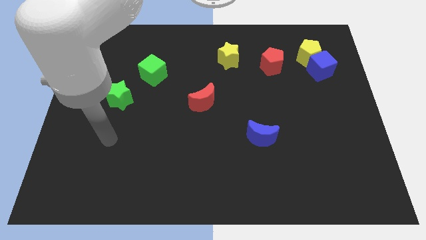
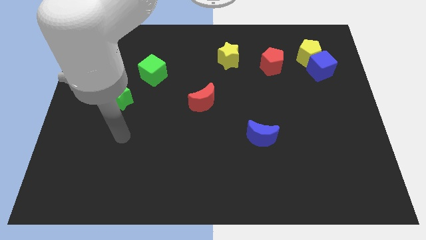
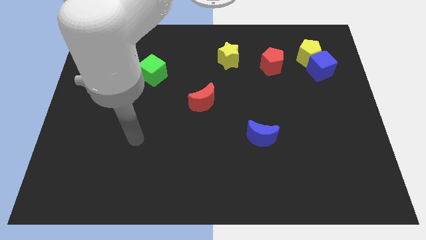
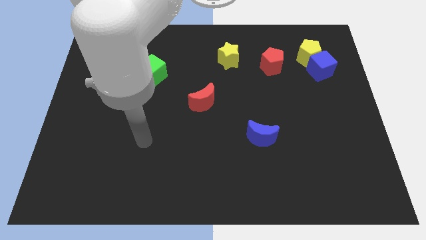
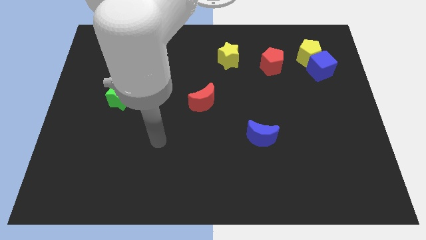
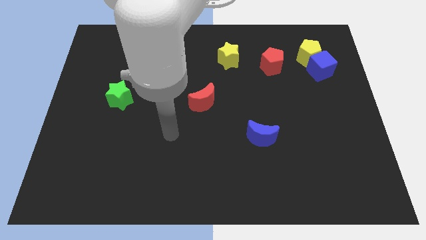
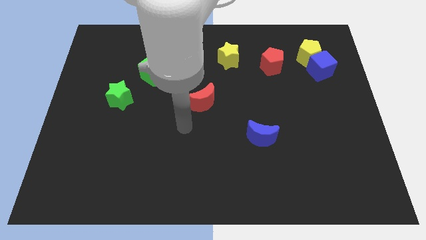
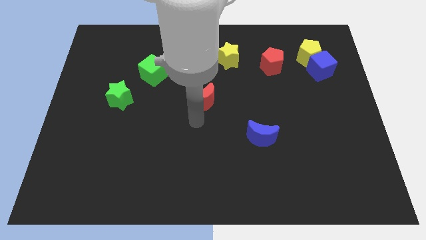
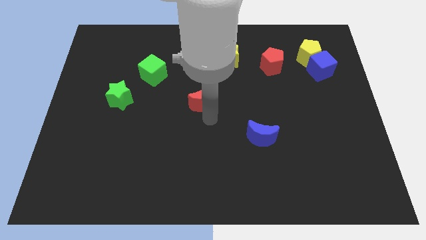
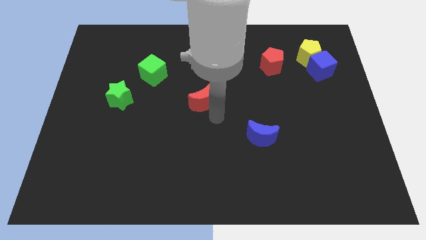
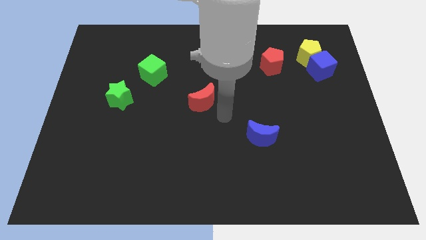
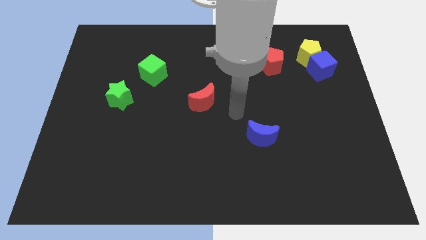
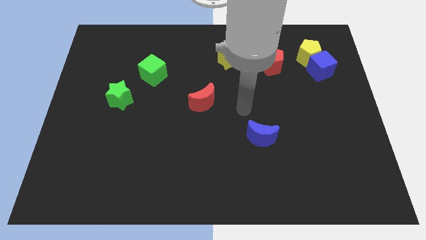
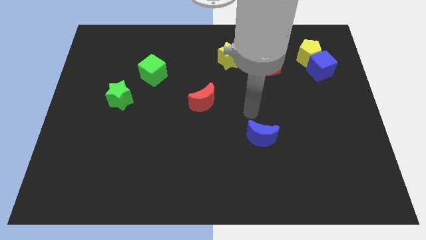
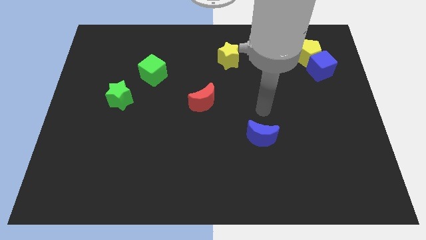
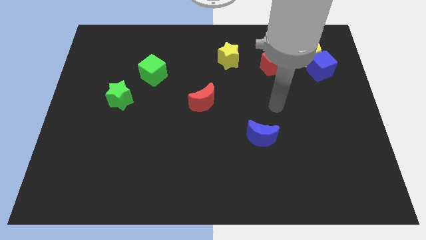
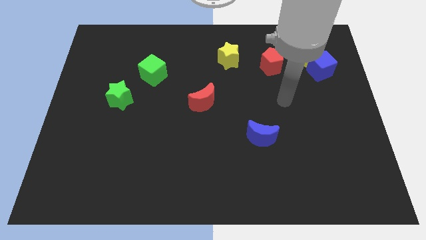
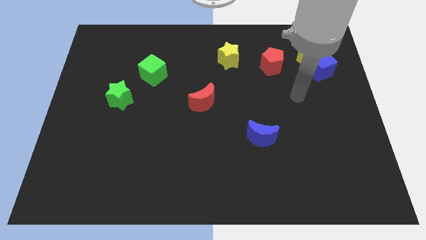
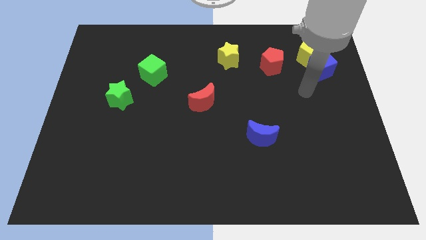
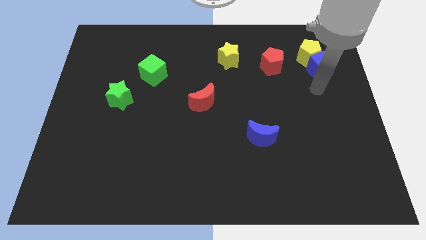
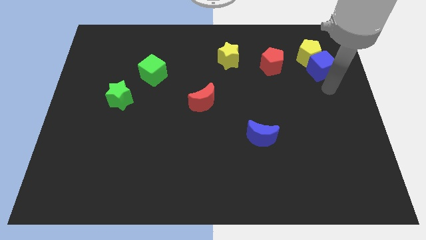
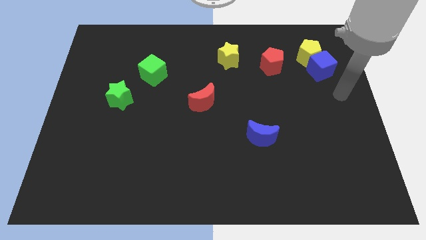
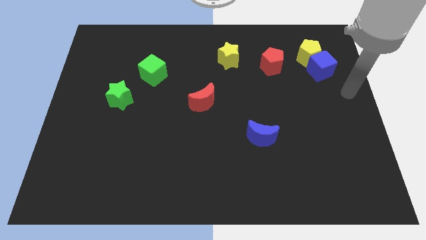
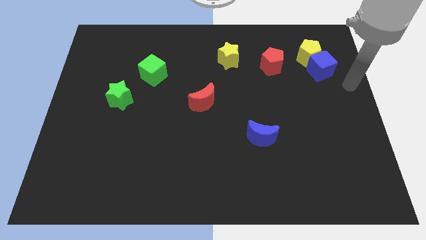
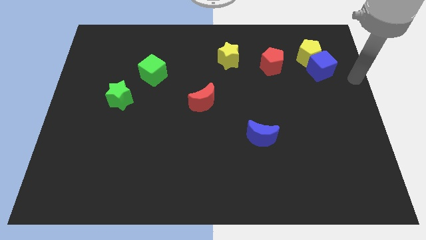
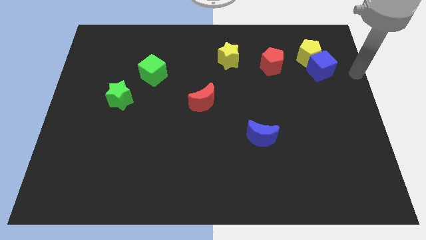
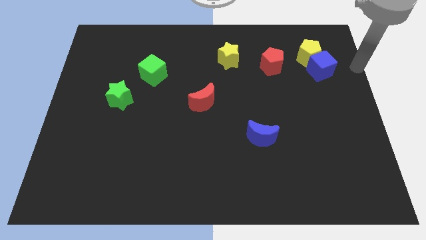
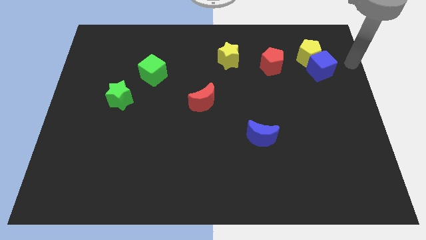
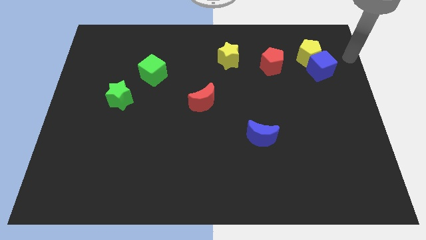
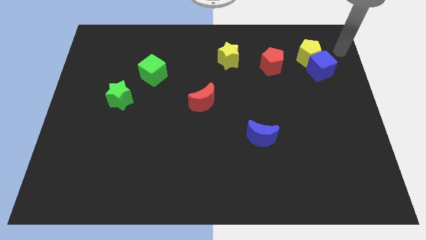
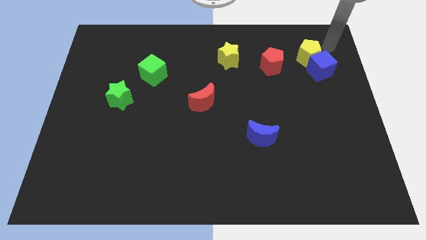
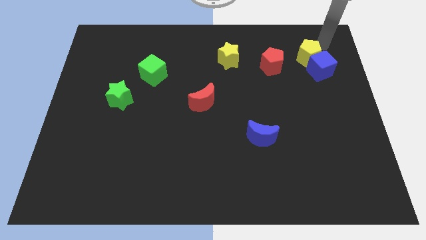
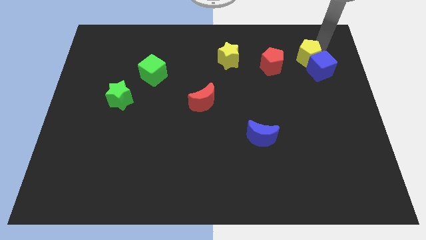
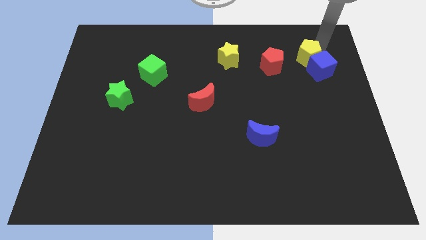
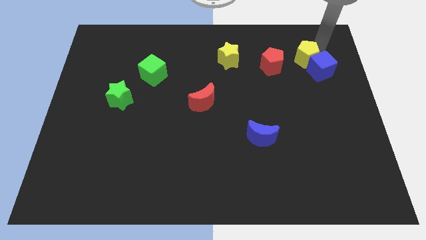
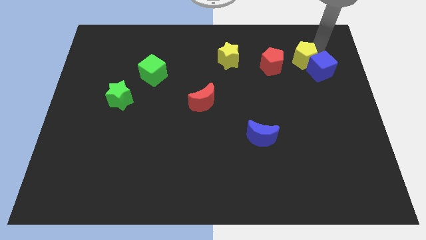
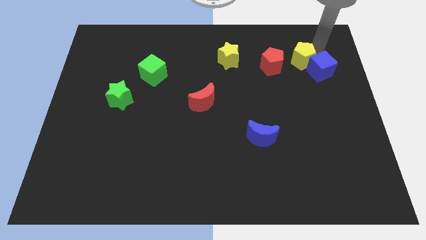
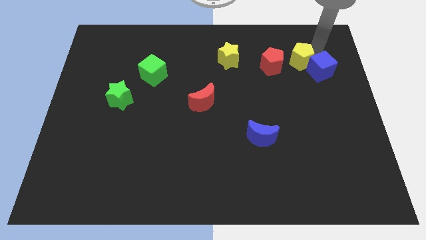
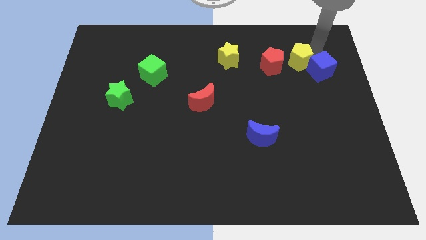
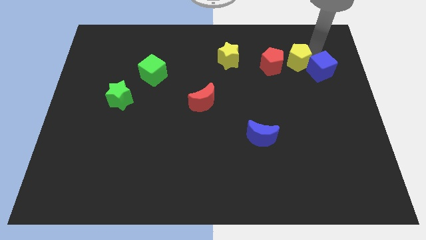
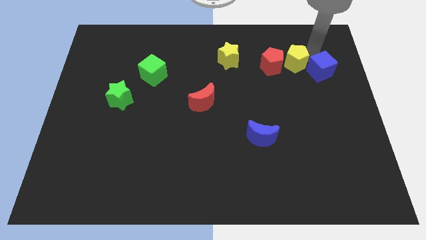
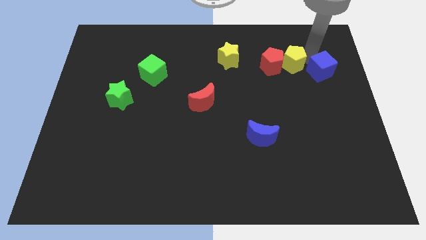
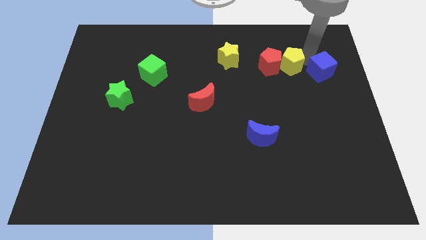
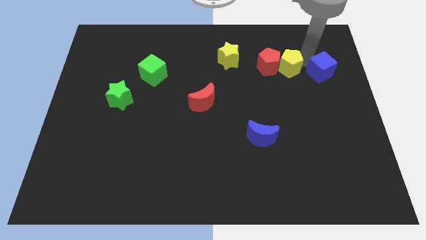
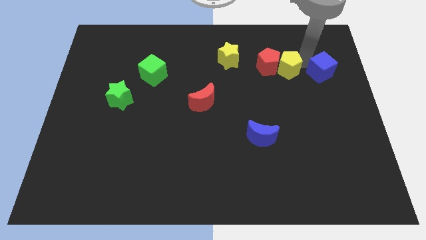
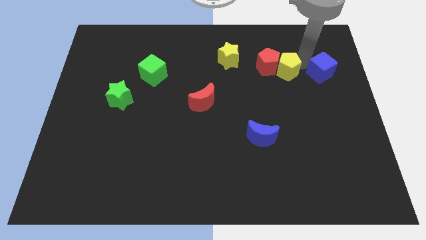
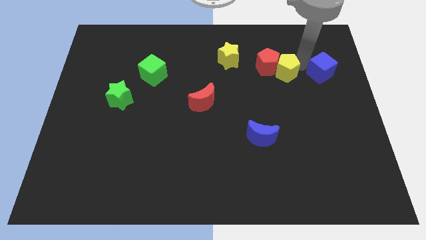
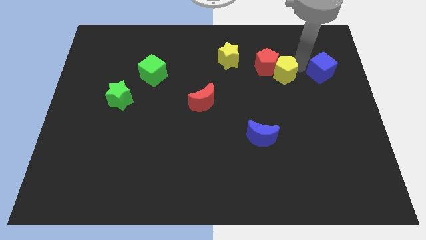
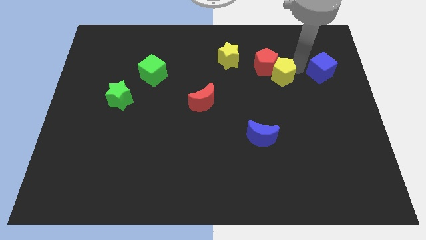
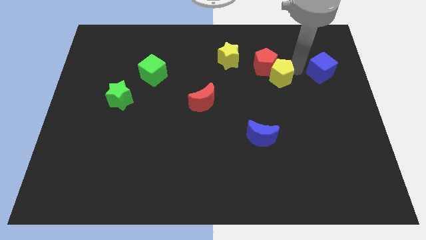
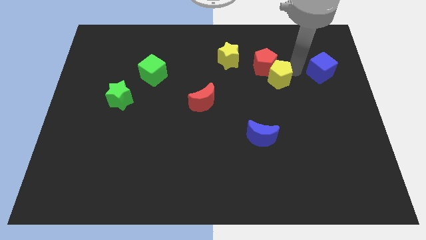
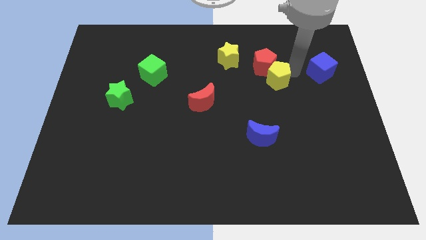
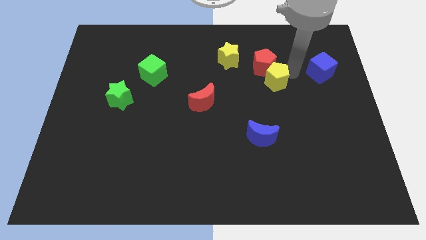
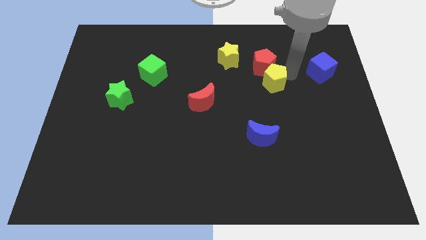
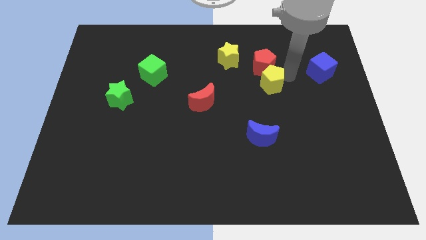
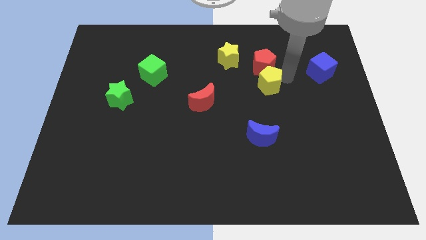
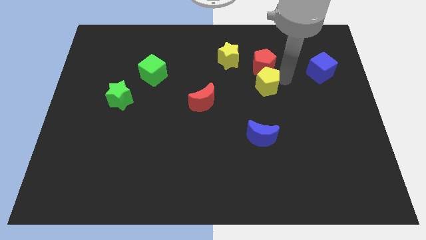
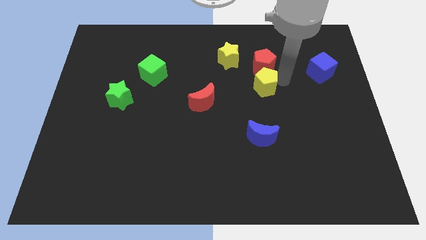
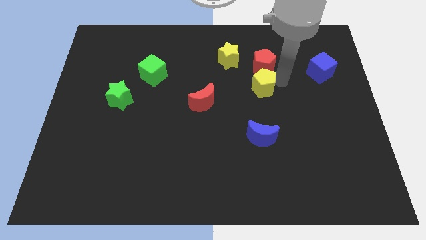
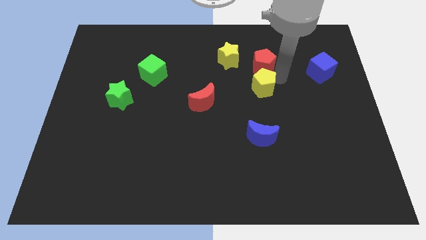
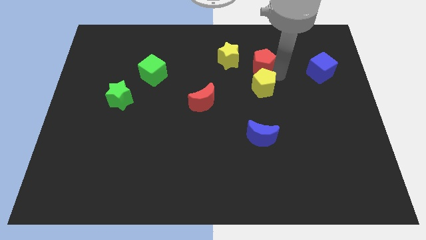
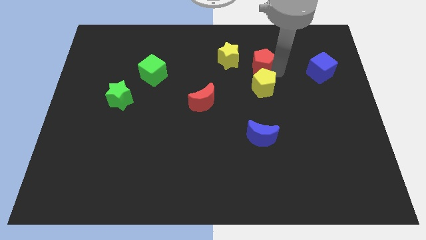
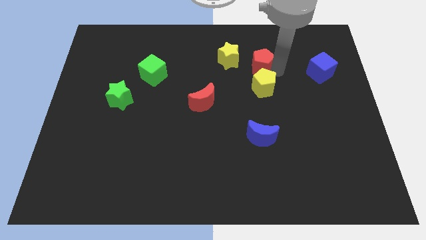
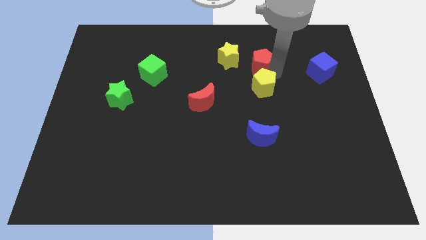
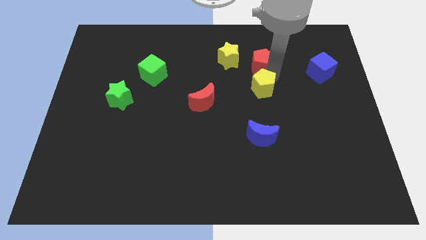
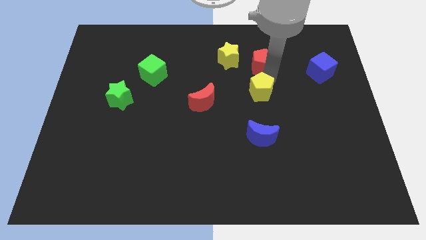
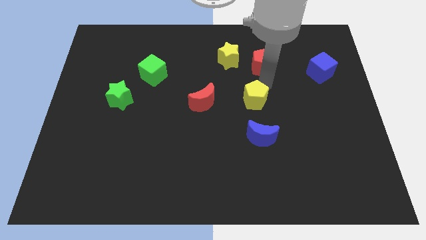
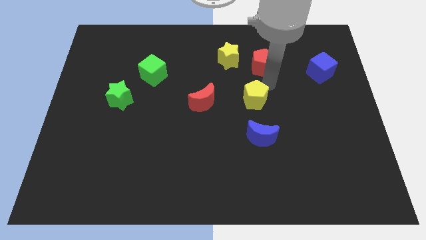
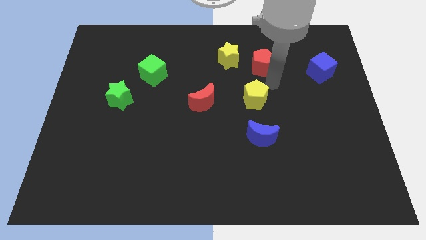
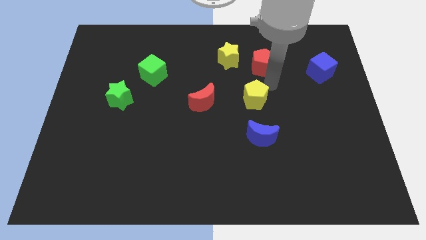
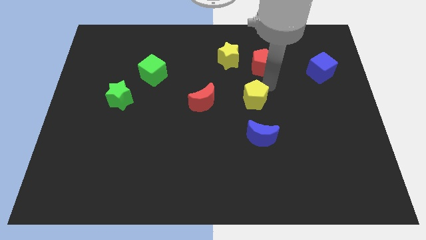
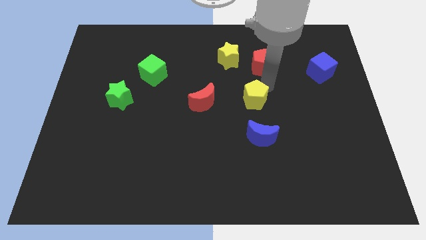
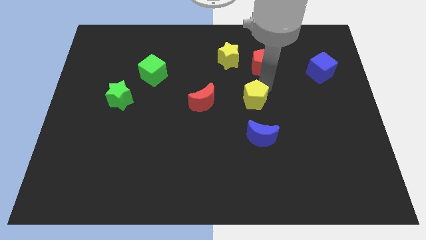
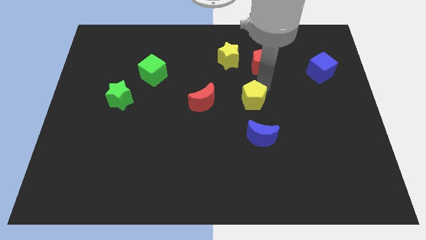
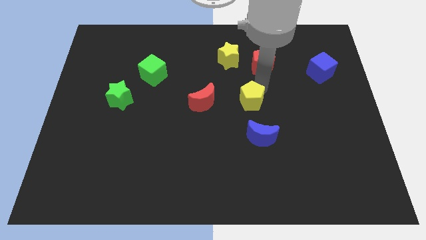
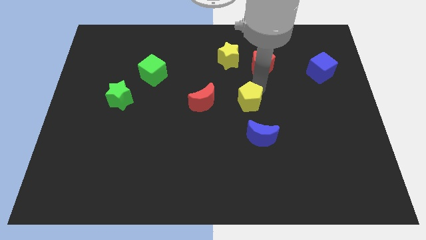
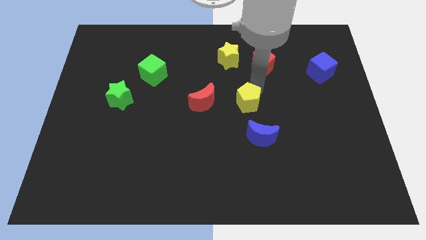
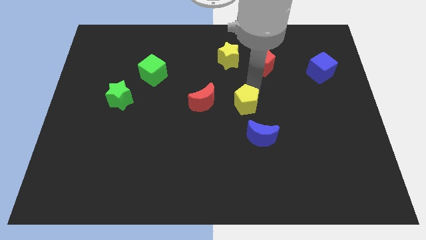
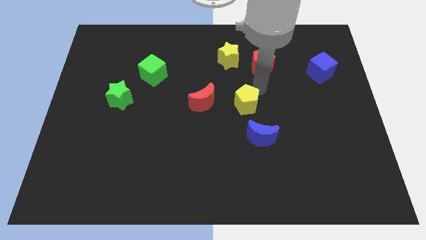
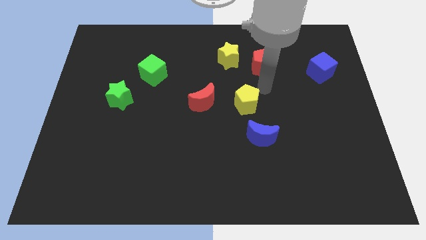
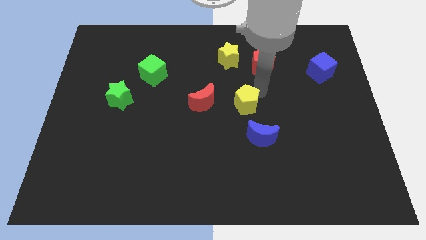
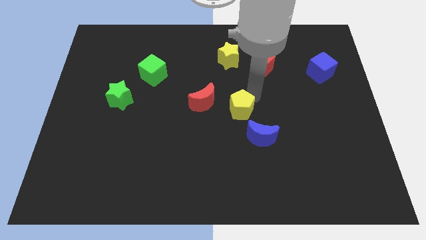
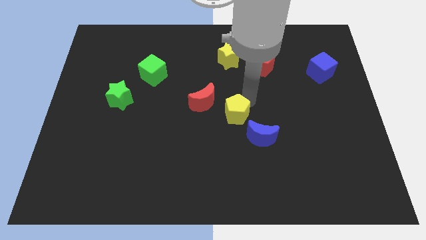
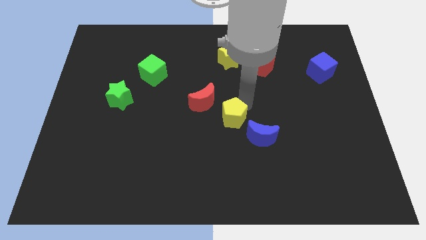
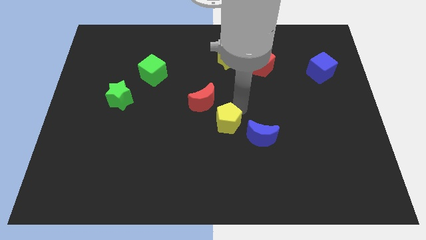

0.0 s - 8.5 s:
push the yellow pentagon to the left of the blue moon
